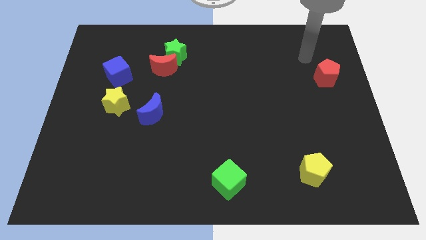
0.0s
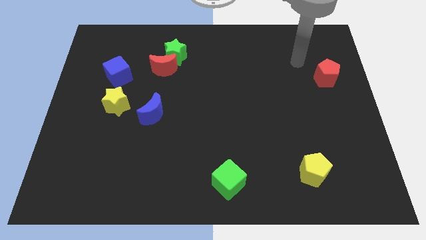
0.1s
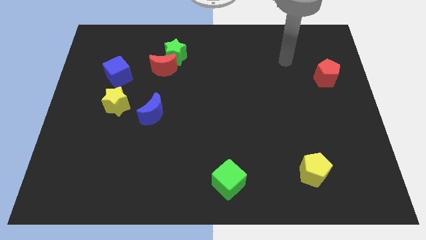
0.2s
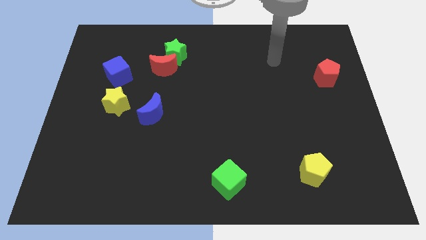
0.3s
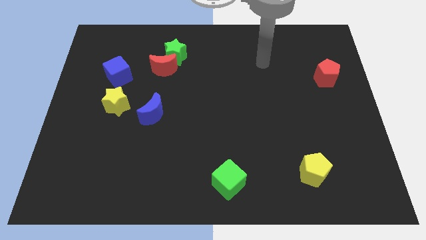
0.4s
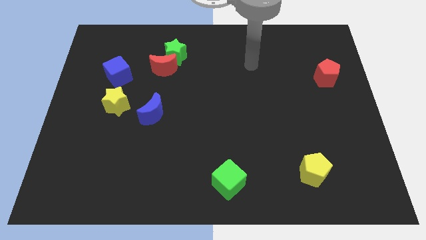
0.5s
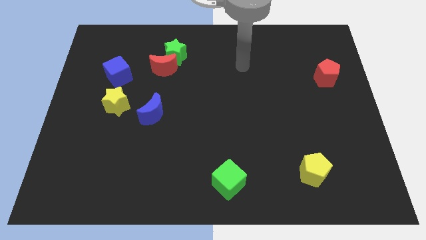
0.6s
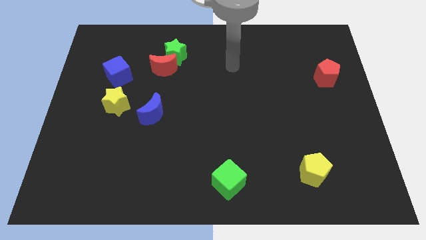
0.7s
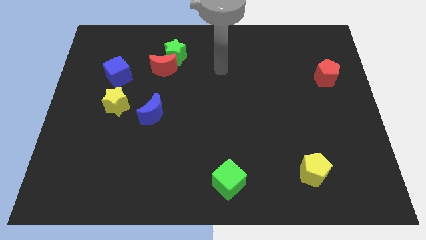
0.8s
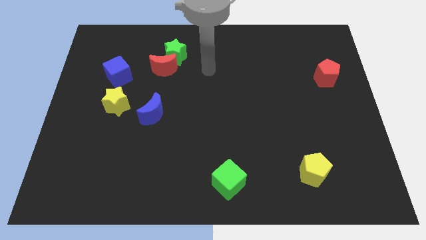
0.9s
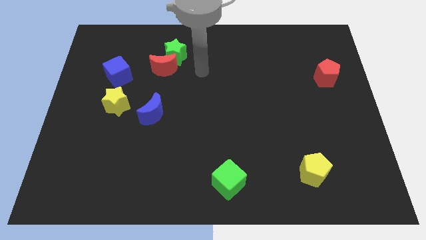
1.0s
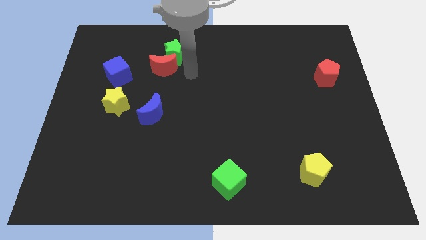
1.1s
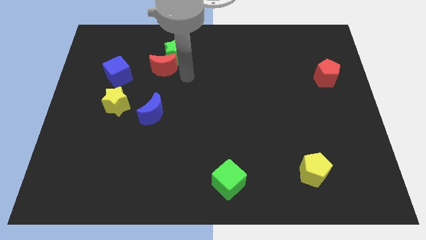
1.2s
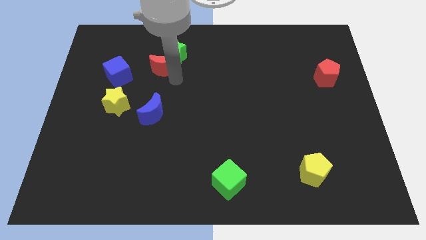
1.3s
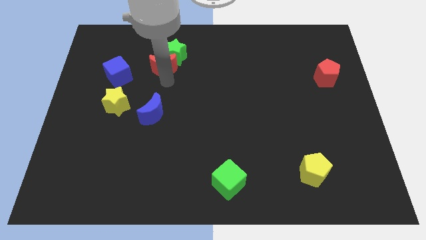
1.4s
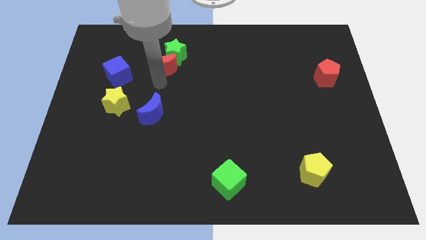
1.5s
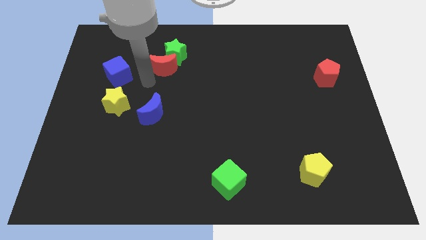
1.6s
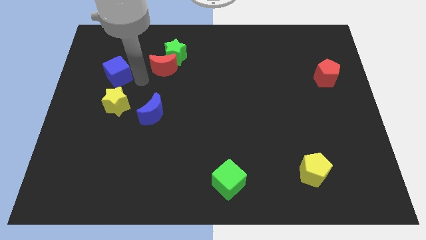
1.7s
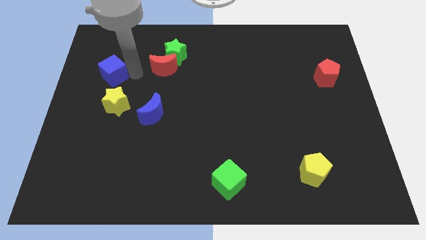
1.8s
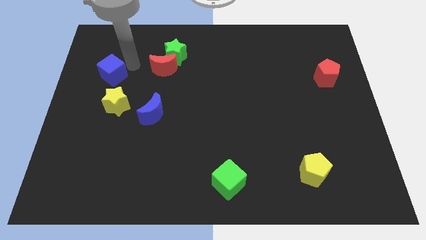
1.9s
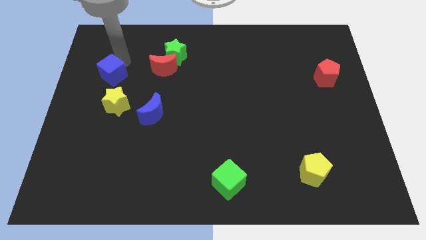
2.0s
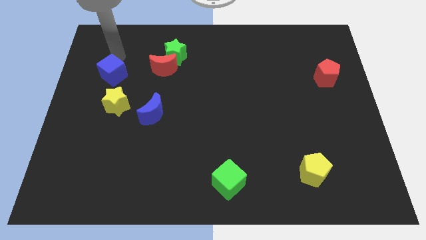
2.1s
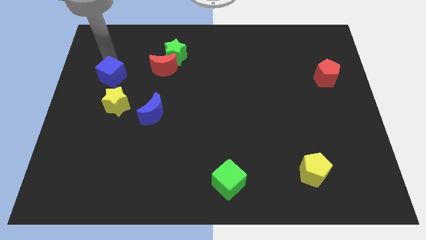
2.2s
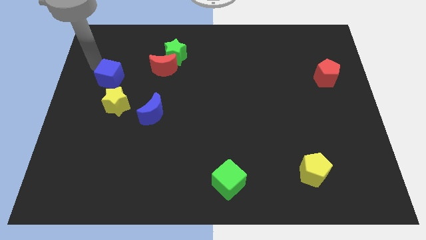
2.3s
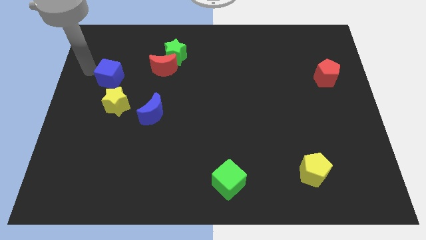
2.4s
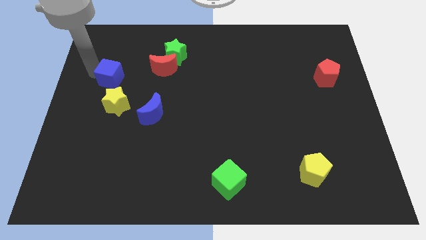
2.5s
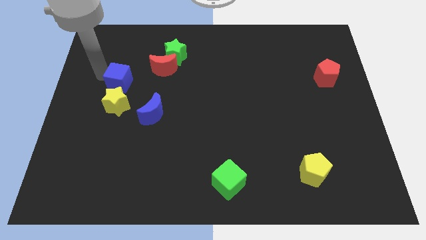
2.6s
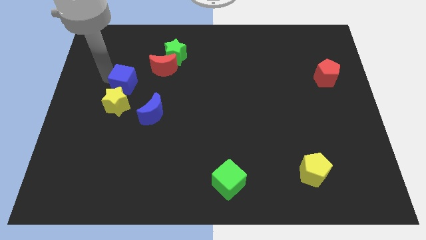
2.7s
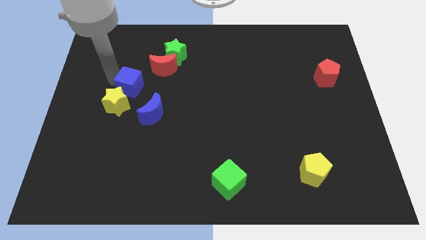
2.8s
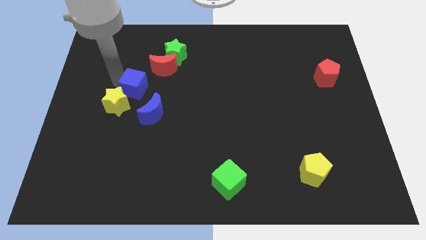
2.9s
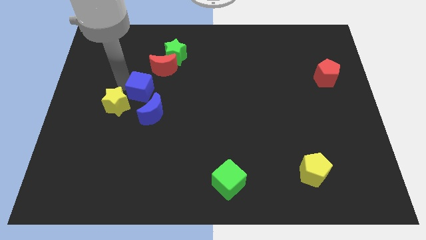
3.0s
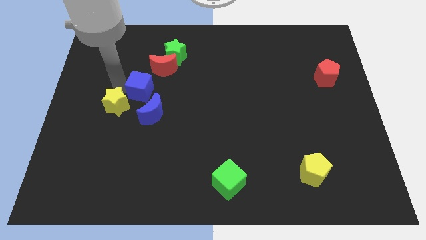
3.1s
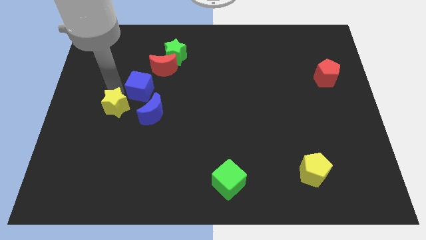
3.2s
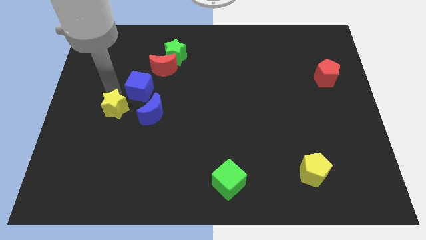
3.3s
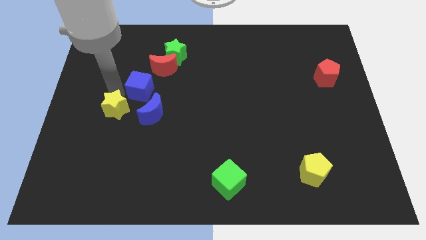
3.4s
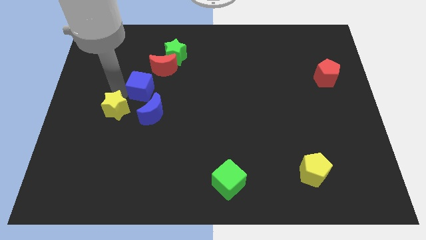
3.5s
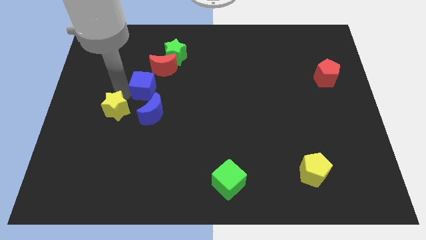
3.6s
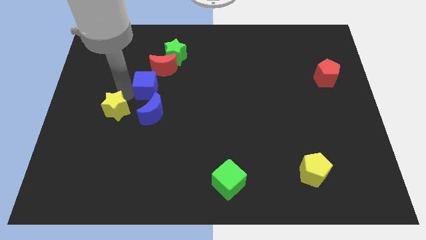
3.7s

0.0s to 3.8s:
move the blue cube to the right slightly

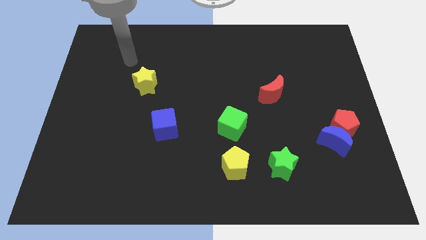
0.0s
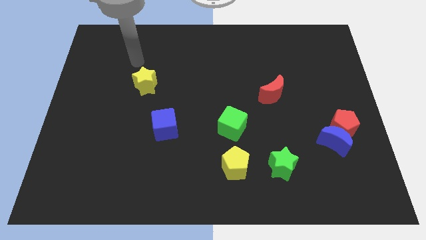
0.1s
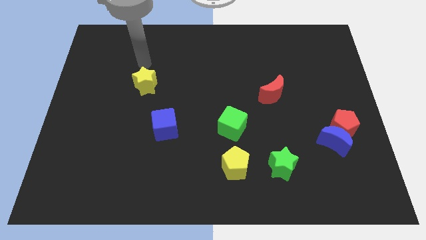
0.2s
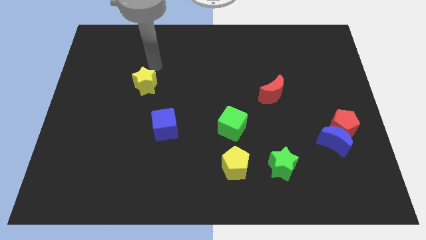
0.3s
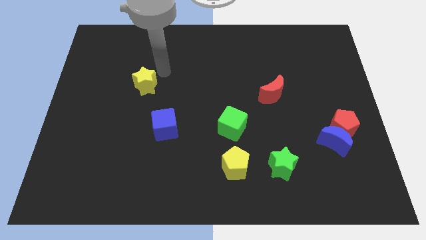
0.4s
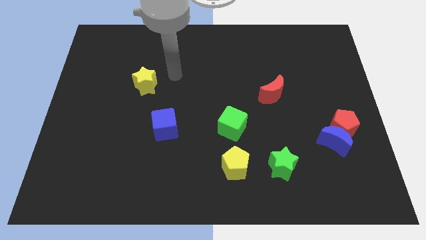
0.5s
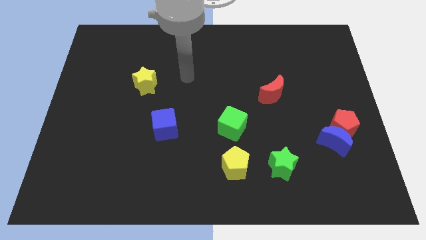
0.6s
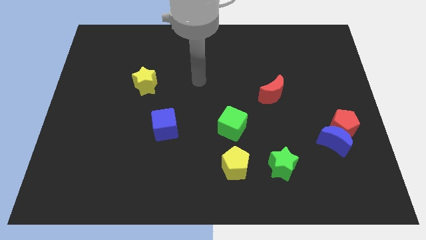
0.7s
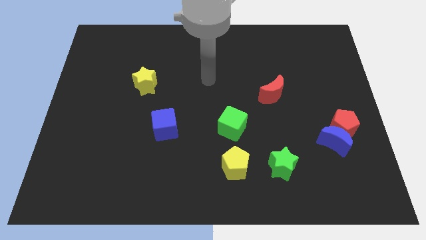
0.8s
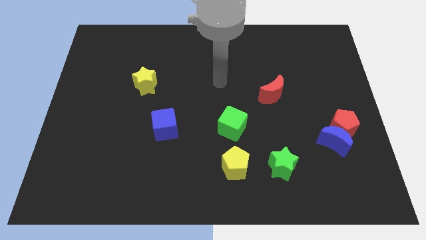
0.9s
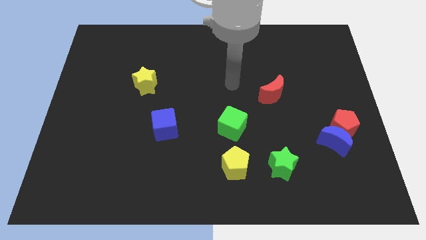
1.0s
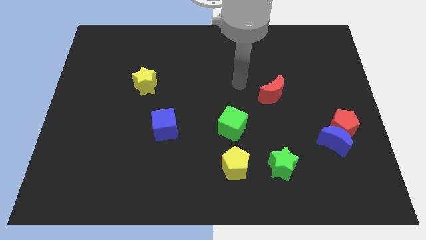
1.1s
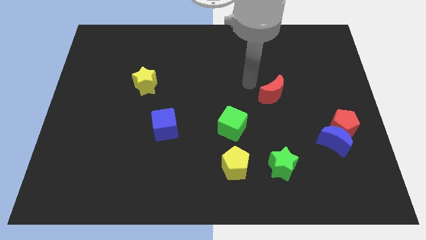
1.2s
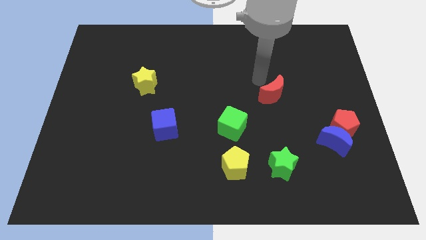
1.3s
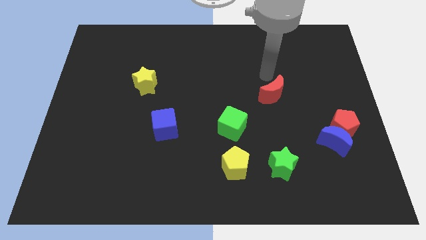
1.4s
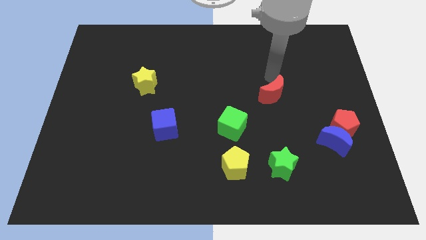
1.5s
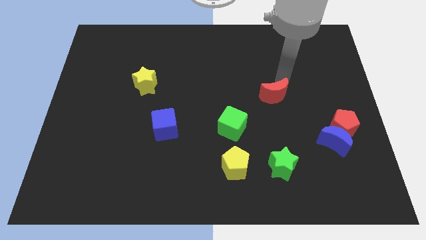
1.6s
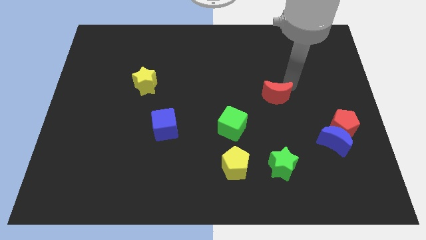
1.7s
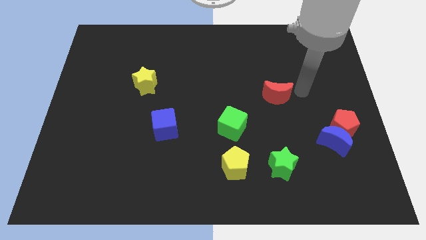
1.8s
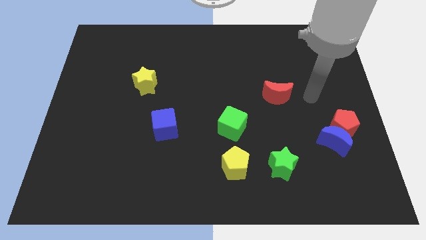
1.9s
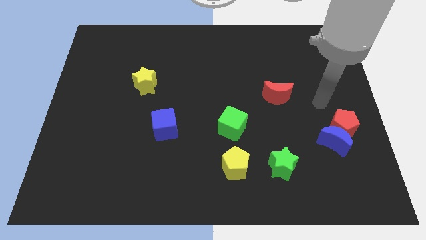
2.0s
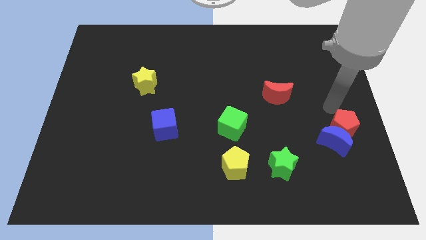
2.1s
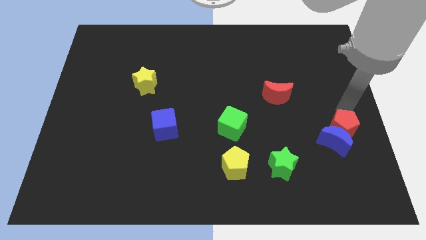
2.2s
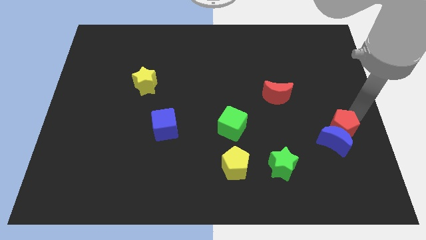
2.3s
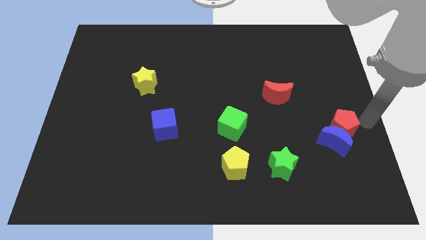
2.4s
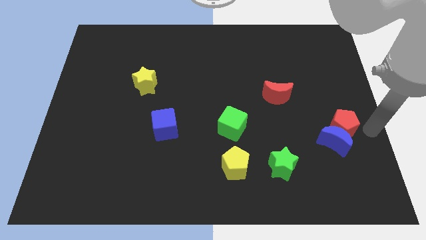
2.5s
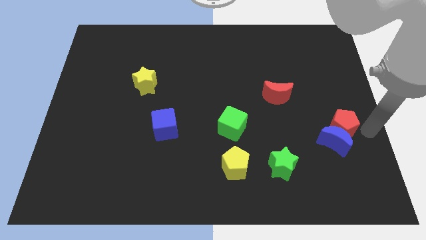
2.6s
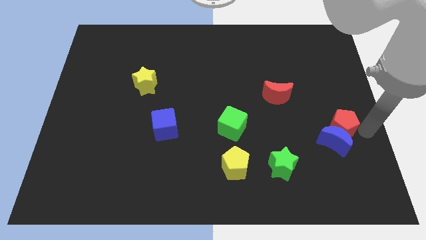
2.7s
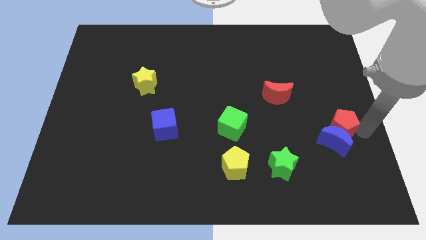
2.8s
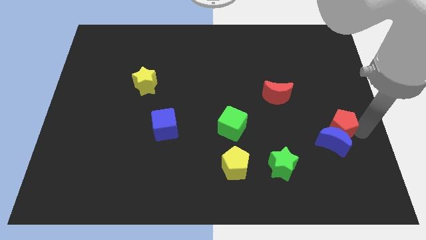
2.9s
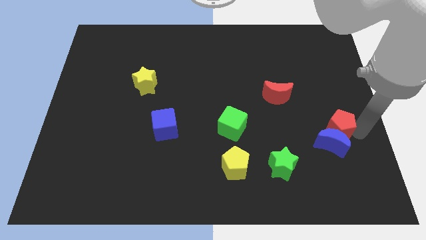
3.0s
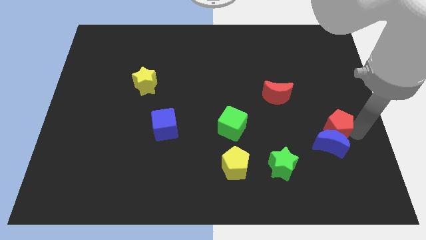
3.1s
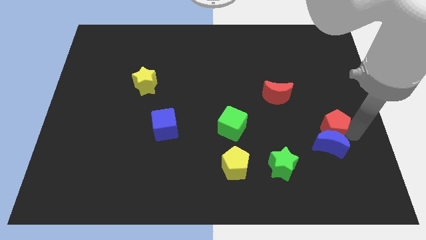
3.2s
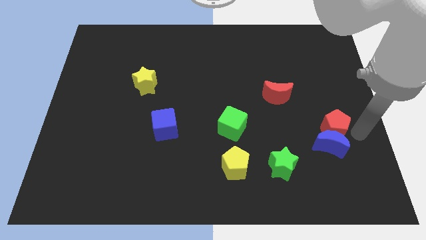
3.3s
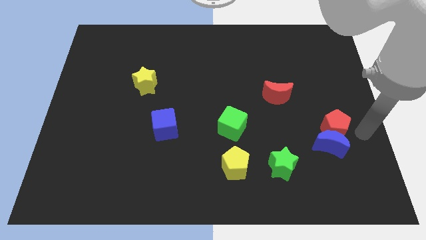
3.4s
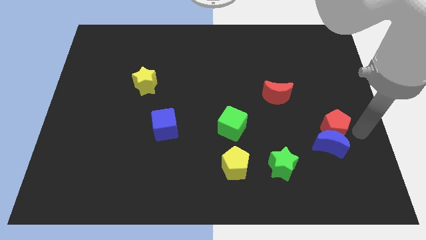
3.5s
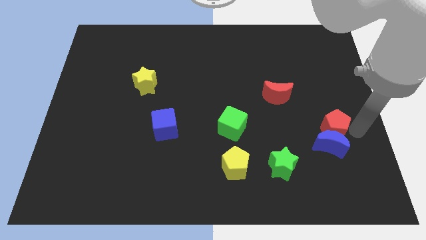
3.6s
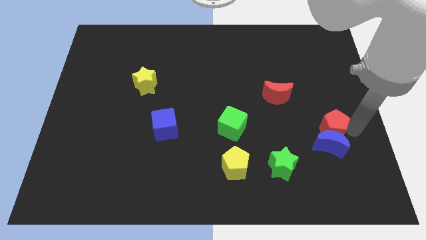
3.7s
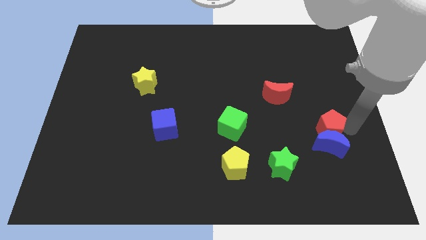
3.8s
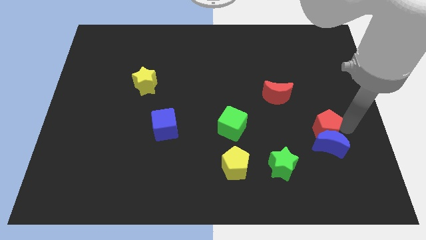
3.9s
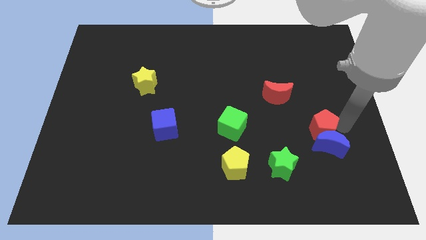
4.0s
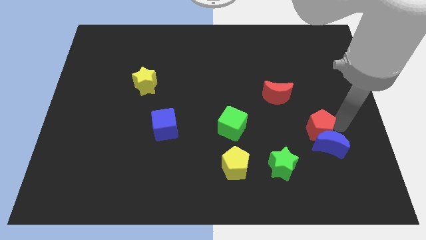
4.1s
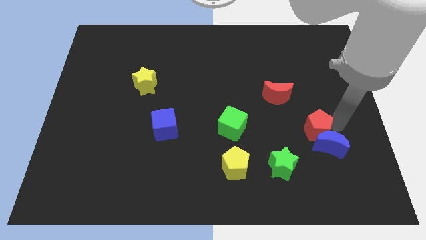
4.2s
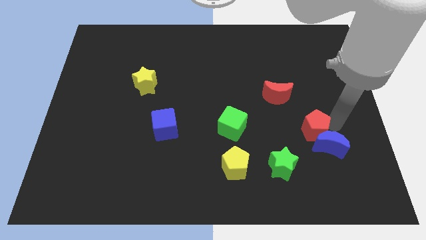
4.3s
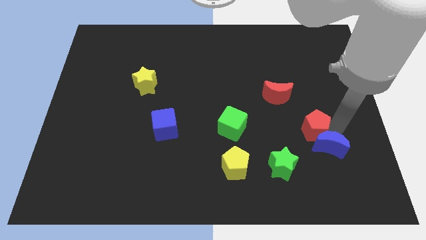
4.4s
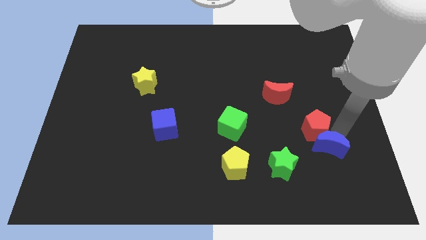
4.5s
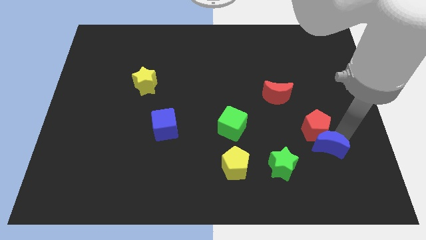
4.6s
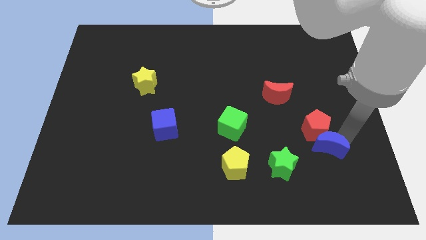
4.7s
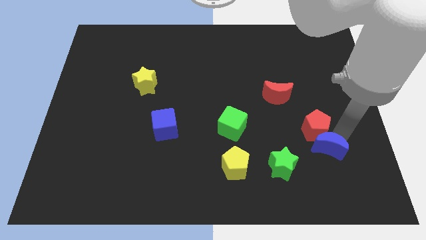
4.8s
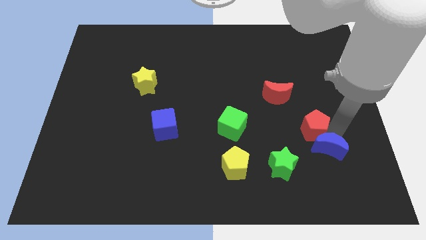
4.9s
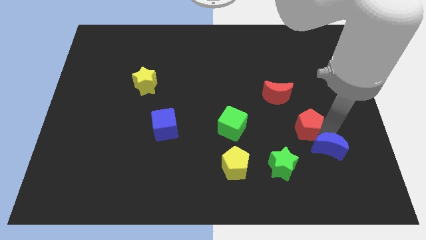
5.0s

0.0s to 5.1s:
move the red pentagon a bit to the left

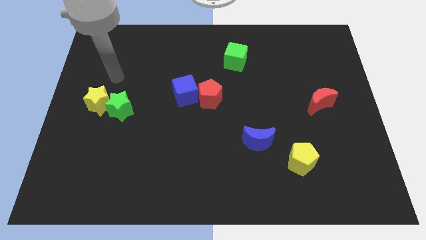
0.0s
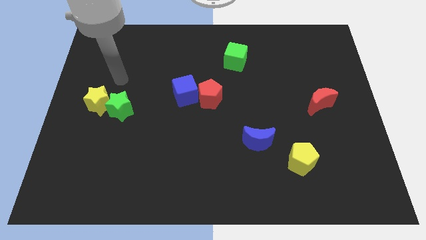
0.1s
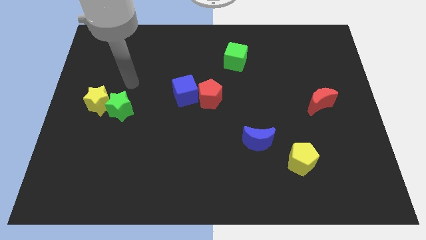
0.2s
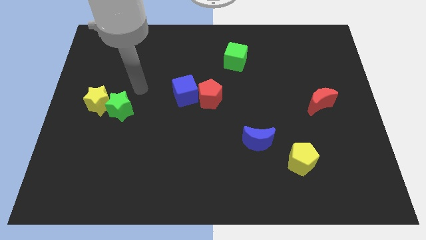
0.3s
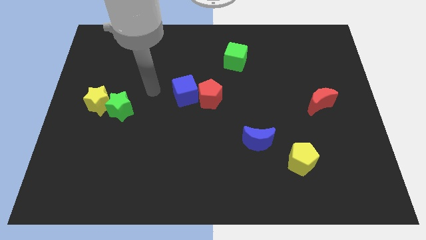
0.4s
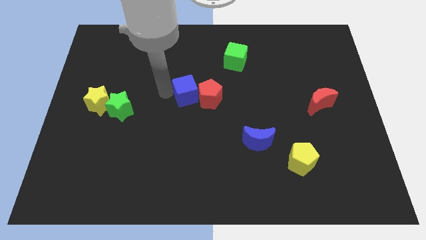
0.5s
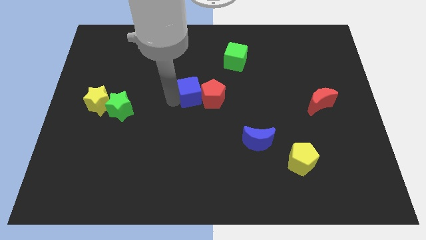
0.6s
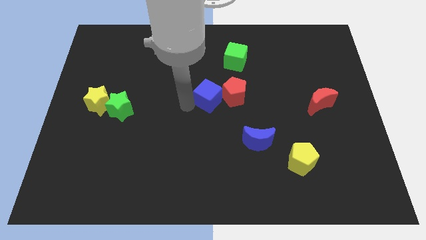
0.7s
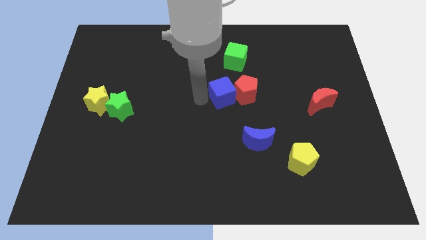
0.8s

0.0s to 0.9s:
move the red pentagon to the right a little bit
